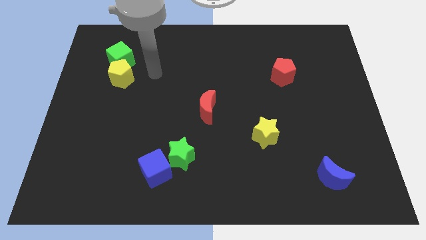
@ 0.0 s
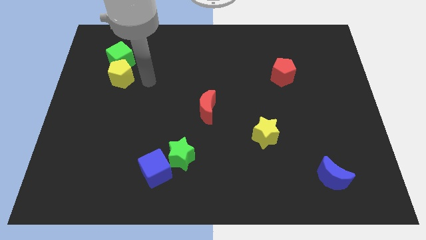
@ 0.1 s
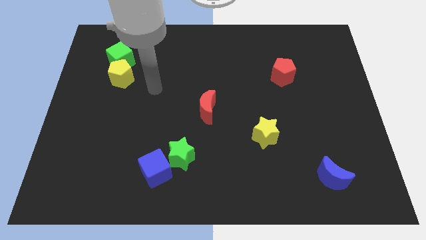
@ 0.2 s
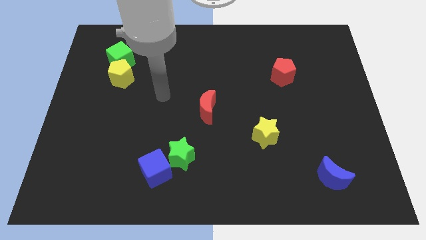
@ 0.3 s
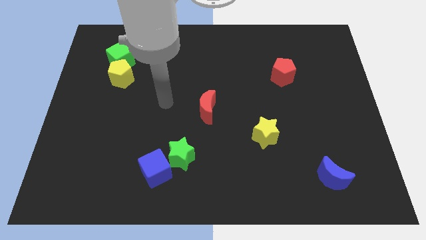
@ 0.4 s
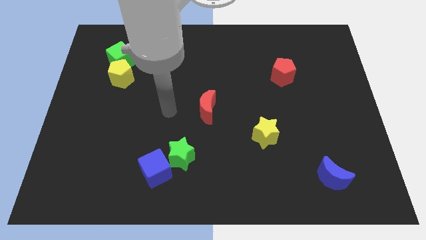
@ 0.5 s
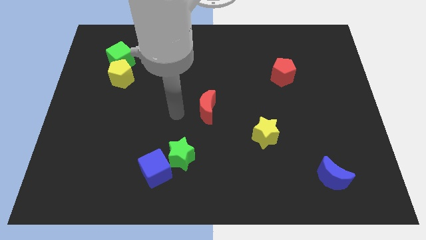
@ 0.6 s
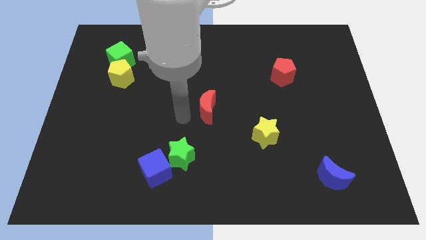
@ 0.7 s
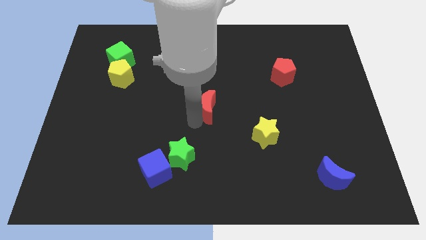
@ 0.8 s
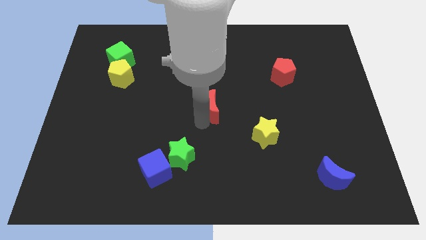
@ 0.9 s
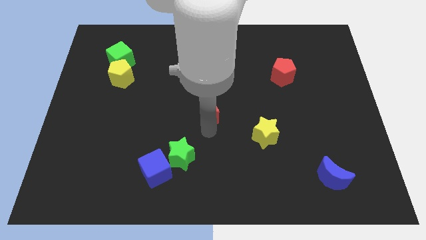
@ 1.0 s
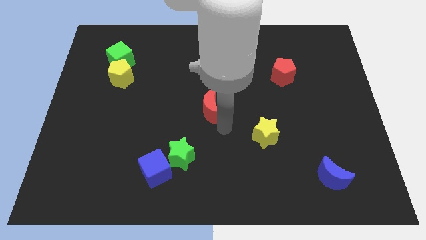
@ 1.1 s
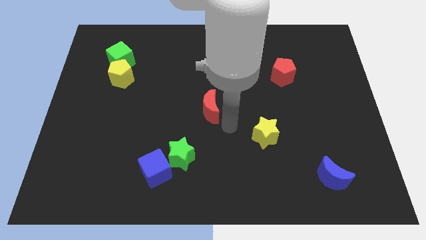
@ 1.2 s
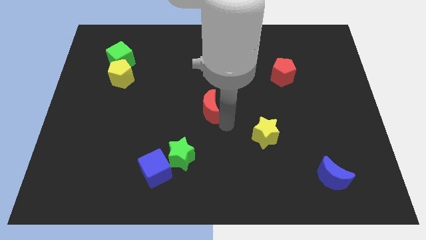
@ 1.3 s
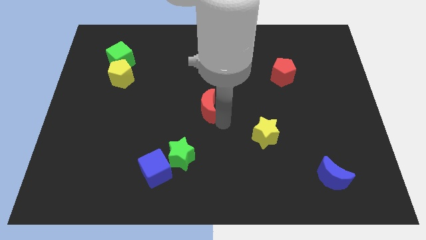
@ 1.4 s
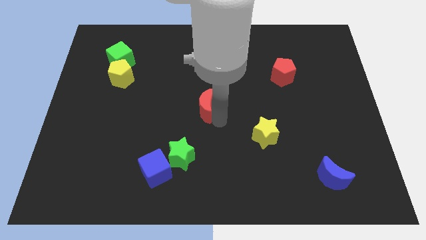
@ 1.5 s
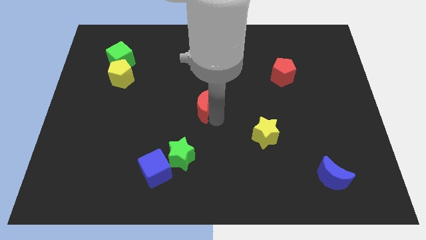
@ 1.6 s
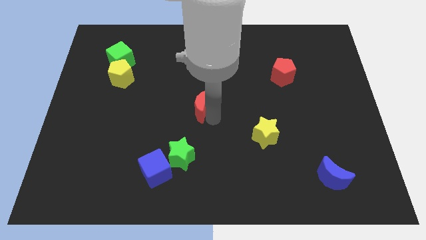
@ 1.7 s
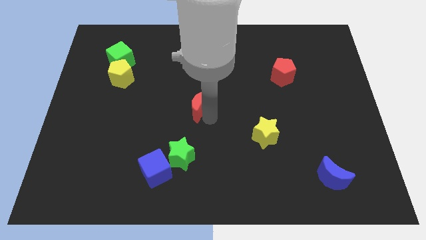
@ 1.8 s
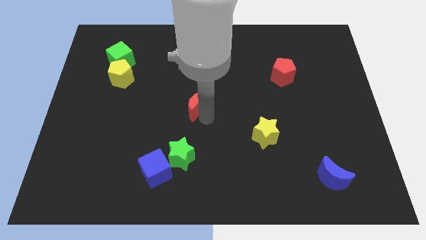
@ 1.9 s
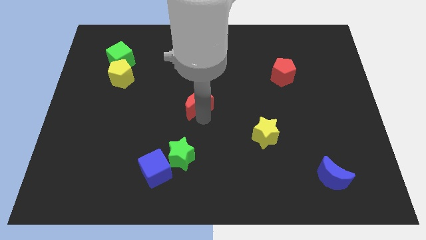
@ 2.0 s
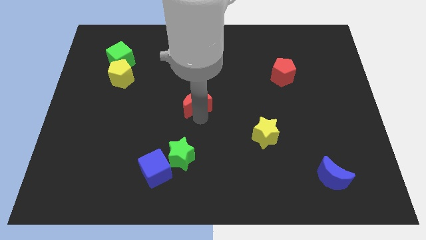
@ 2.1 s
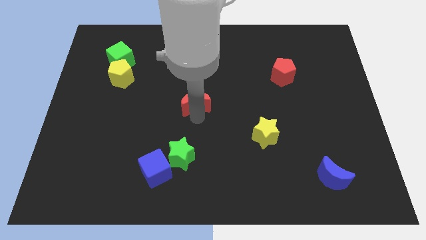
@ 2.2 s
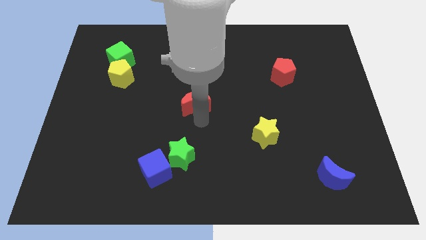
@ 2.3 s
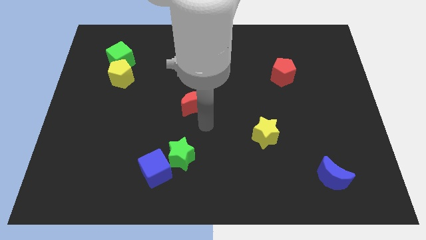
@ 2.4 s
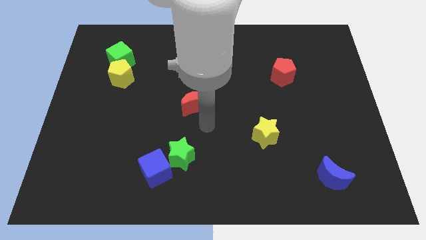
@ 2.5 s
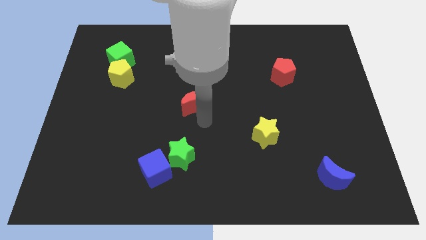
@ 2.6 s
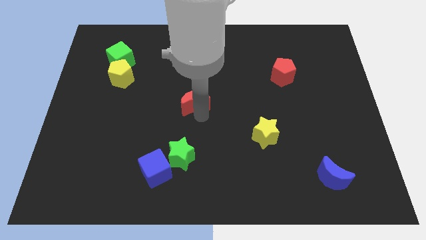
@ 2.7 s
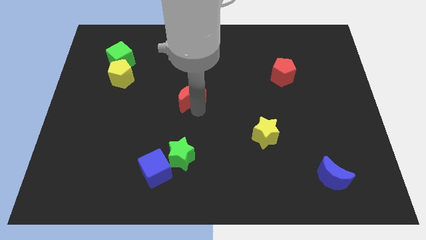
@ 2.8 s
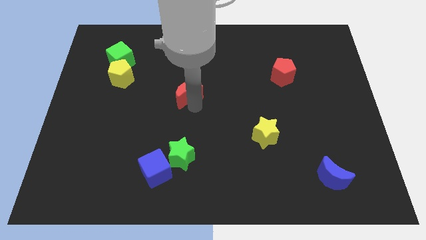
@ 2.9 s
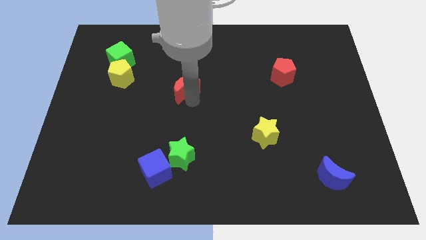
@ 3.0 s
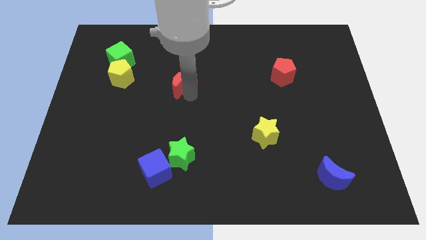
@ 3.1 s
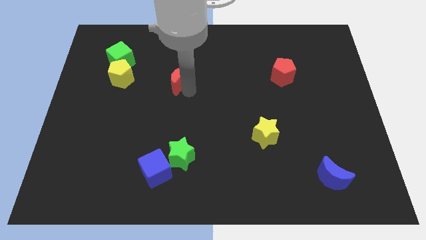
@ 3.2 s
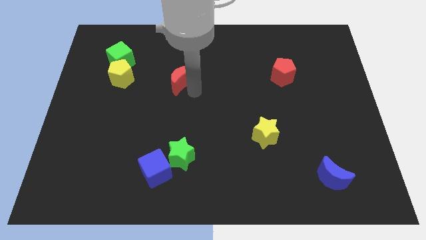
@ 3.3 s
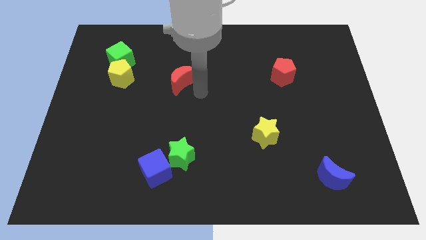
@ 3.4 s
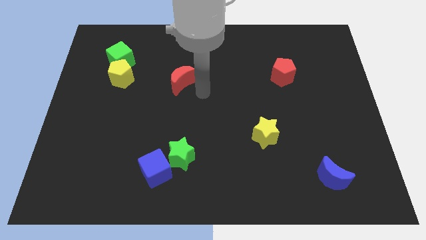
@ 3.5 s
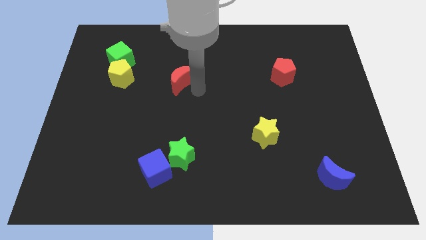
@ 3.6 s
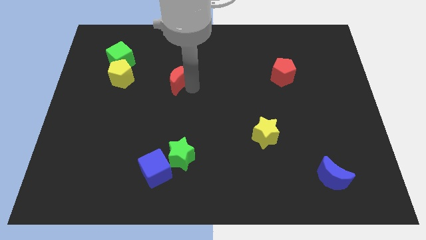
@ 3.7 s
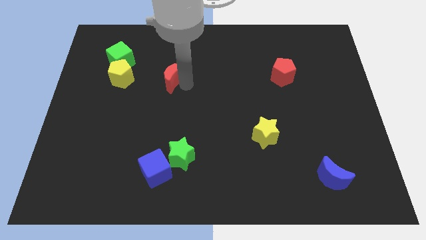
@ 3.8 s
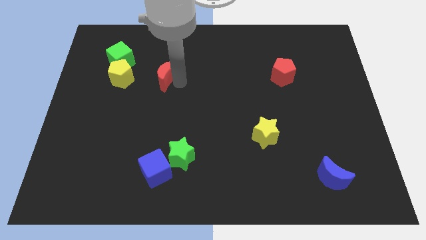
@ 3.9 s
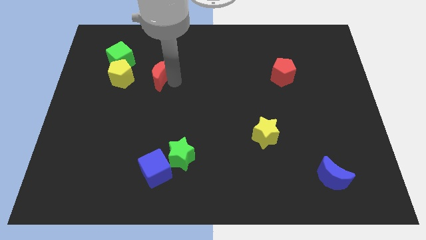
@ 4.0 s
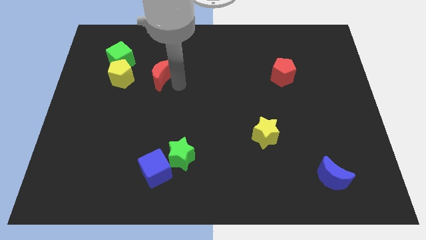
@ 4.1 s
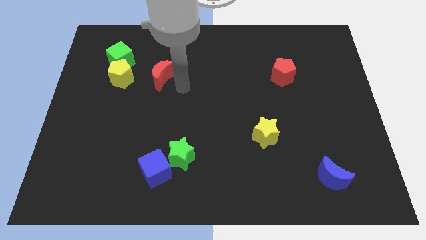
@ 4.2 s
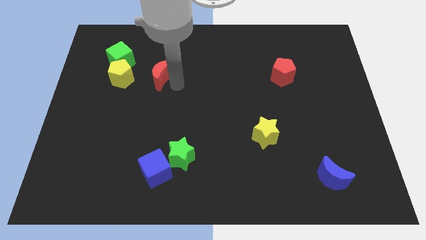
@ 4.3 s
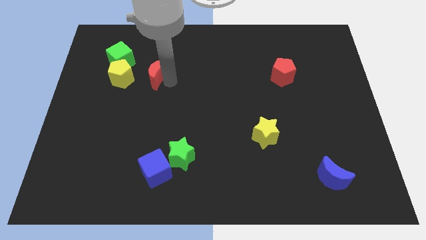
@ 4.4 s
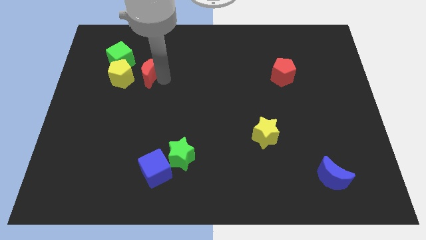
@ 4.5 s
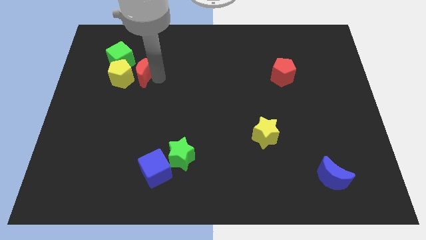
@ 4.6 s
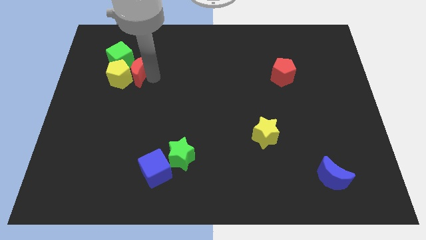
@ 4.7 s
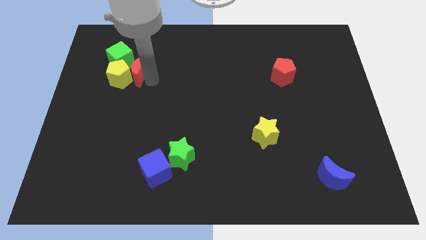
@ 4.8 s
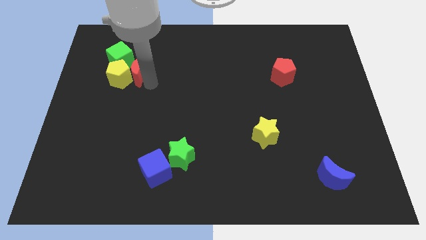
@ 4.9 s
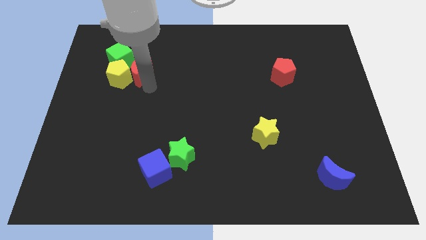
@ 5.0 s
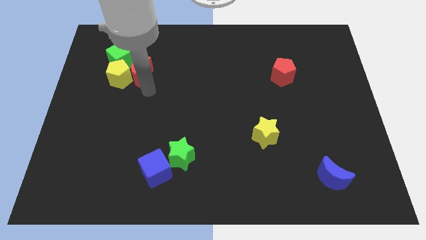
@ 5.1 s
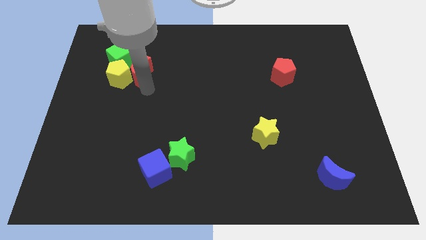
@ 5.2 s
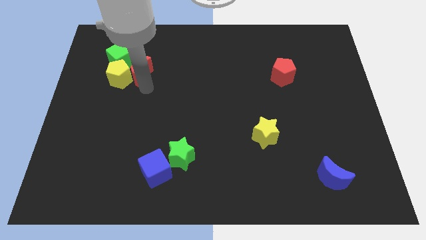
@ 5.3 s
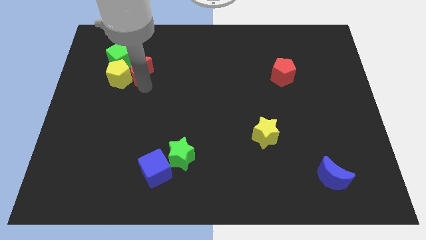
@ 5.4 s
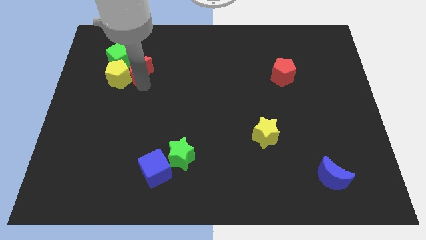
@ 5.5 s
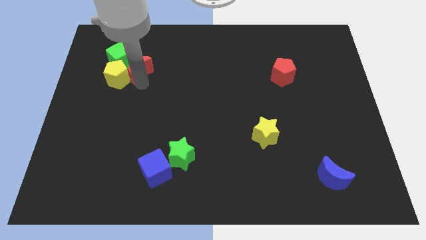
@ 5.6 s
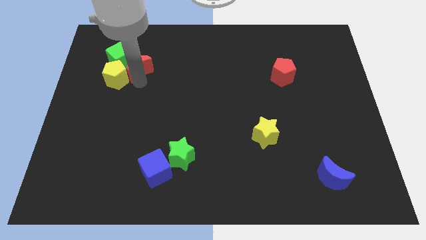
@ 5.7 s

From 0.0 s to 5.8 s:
put the red moon towards the green cube
